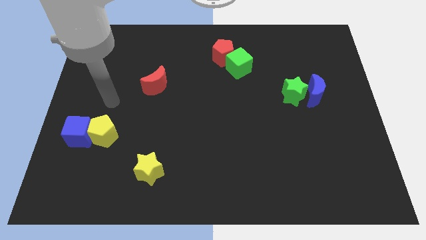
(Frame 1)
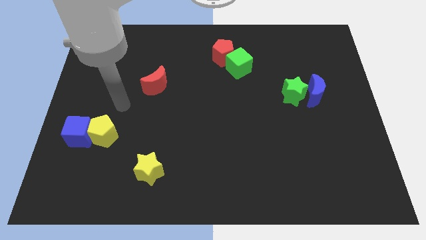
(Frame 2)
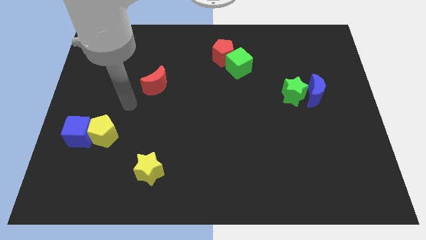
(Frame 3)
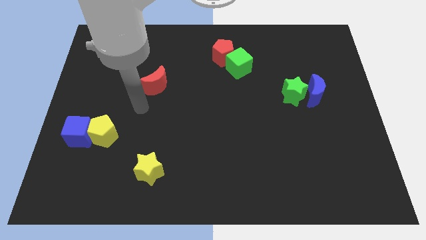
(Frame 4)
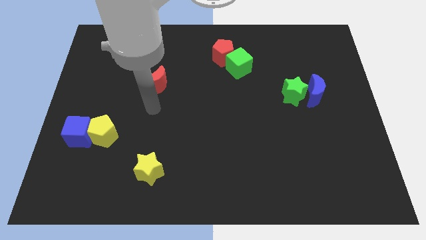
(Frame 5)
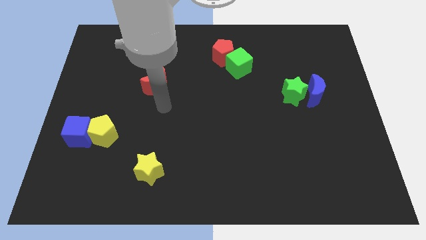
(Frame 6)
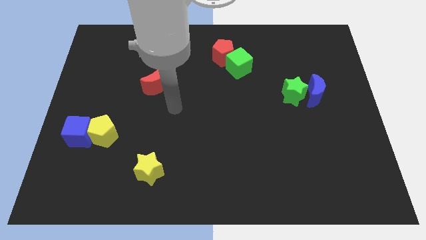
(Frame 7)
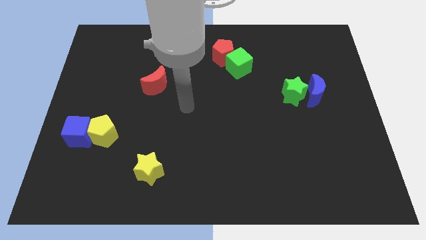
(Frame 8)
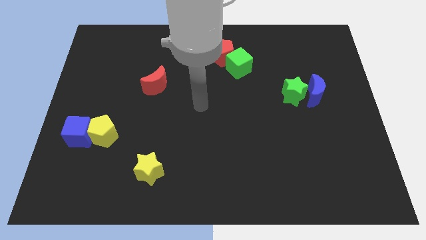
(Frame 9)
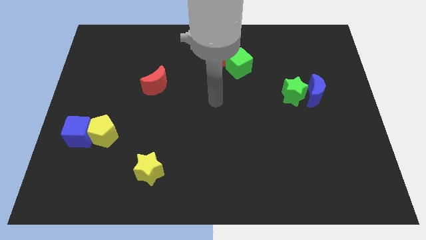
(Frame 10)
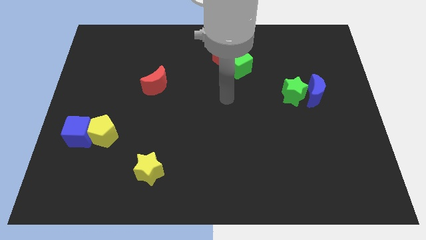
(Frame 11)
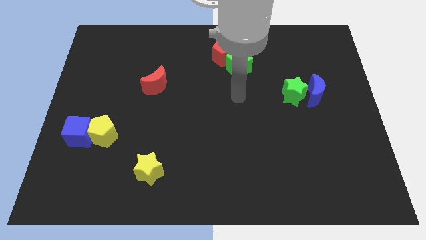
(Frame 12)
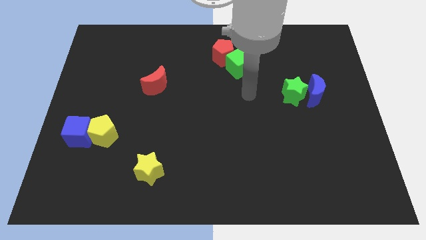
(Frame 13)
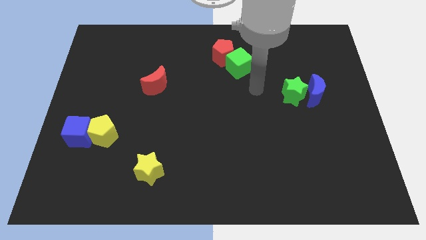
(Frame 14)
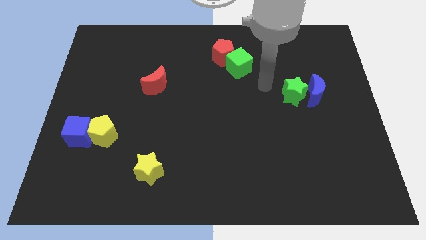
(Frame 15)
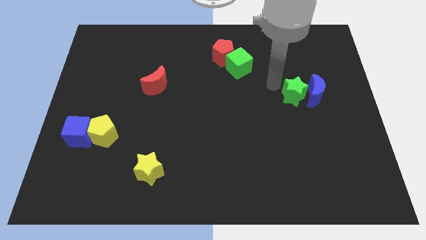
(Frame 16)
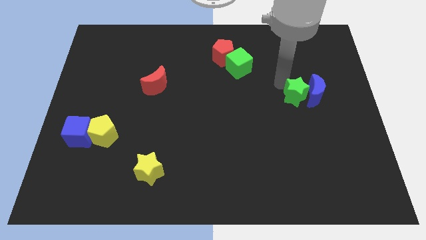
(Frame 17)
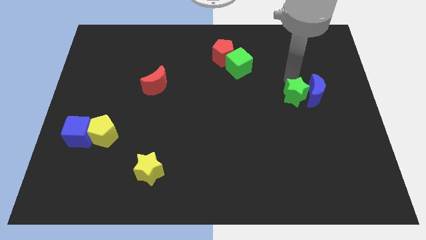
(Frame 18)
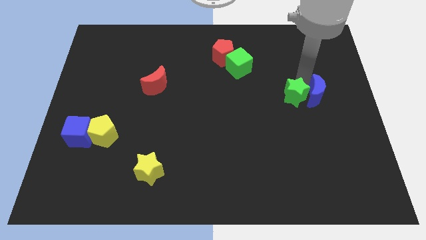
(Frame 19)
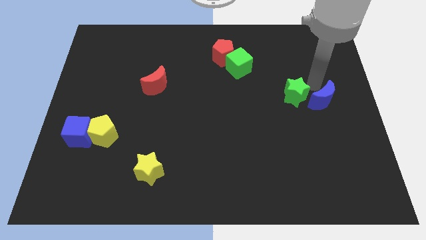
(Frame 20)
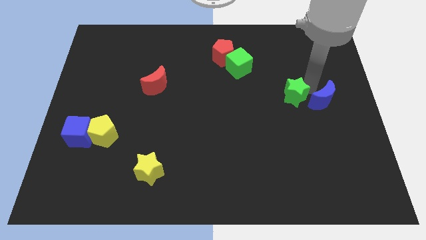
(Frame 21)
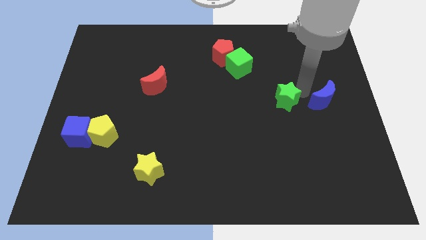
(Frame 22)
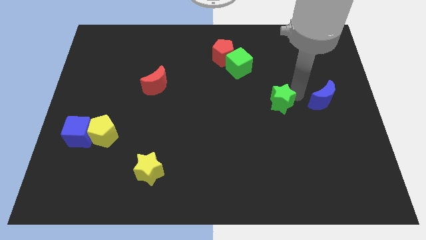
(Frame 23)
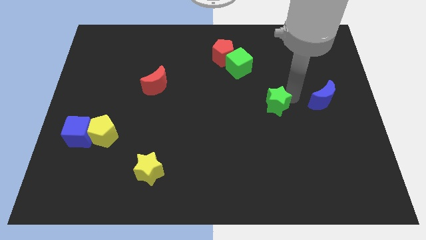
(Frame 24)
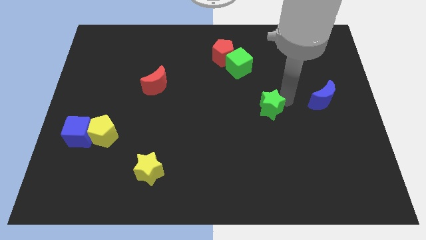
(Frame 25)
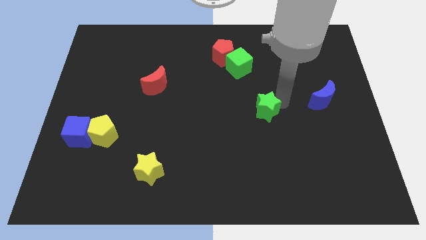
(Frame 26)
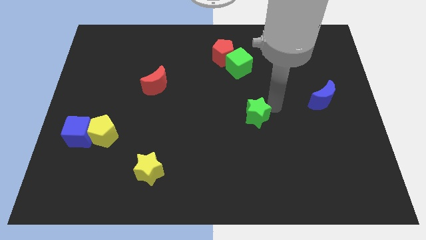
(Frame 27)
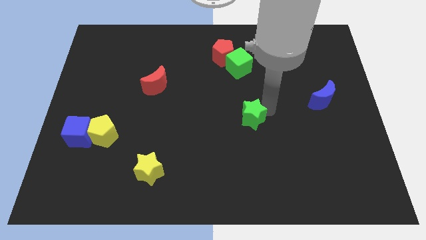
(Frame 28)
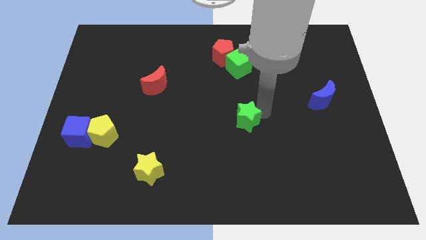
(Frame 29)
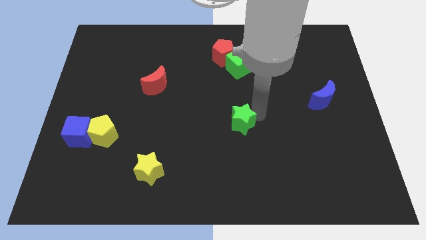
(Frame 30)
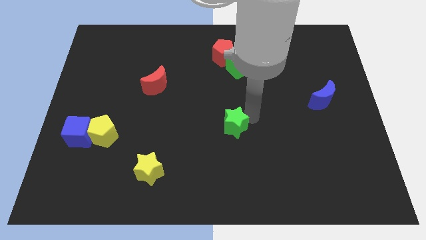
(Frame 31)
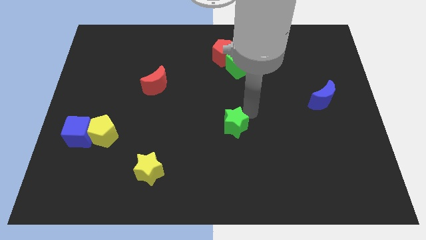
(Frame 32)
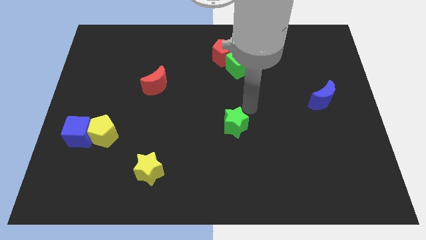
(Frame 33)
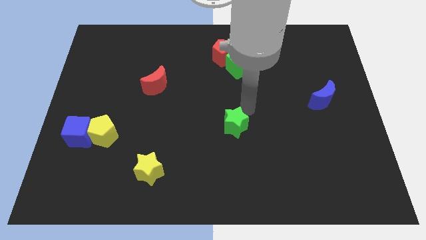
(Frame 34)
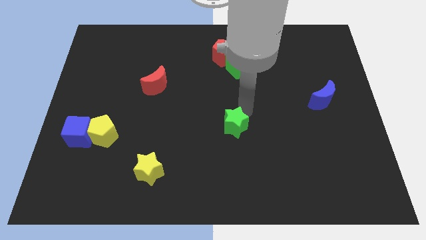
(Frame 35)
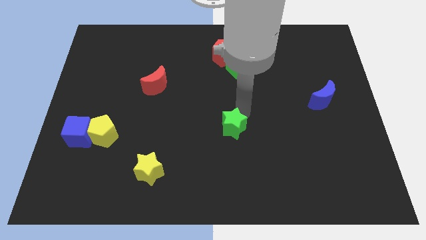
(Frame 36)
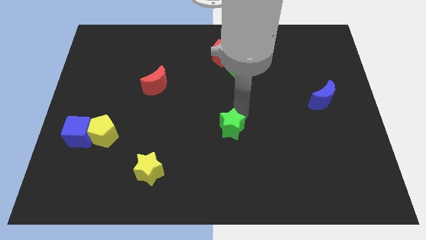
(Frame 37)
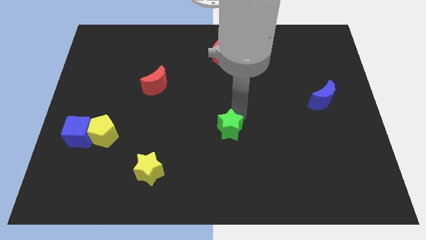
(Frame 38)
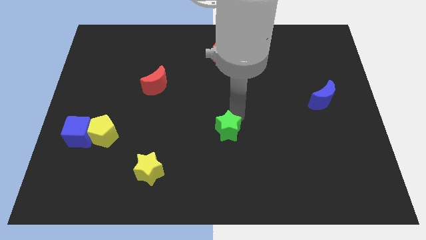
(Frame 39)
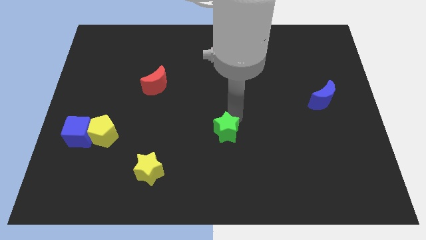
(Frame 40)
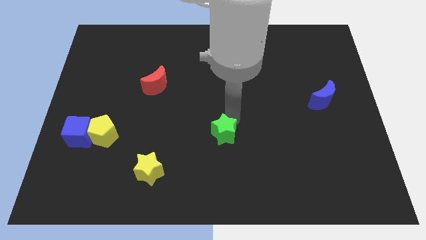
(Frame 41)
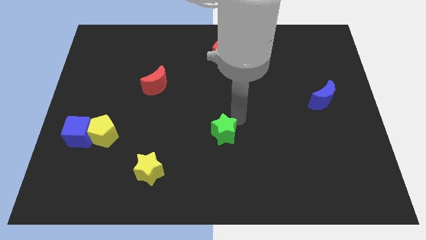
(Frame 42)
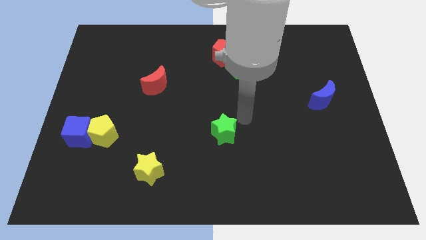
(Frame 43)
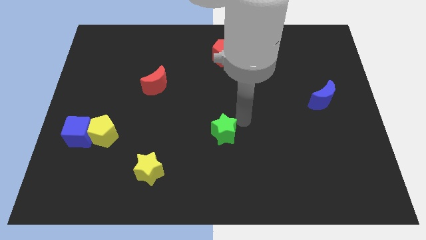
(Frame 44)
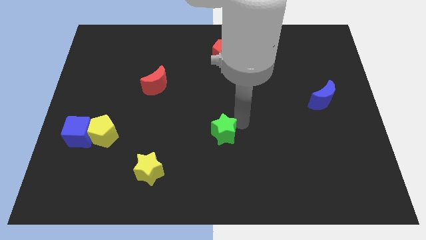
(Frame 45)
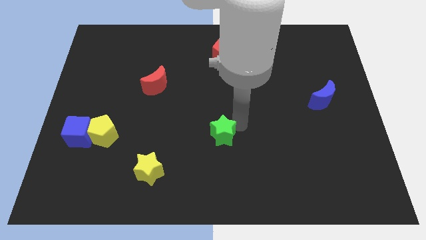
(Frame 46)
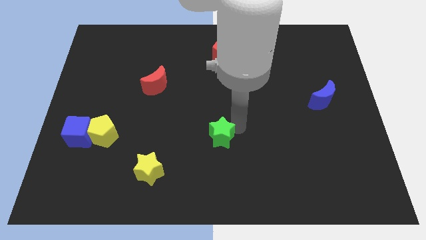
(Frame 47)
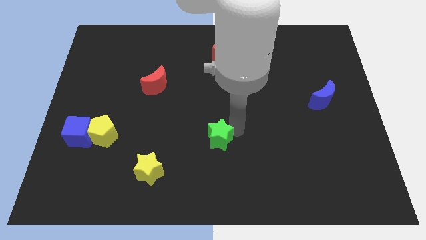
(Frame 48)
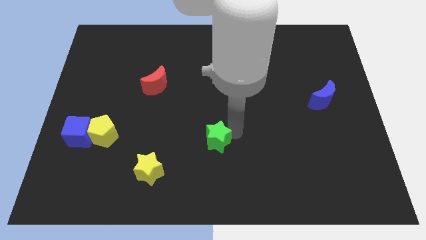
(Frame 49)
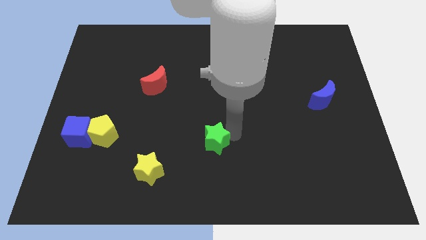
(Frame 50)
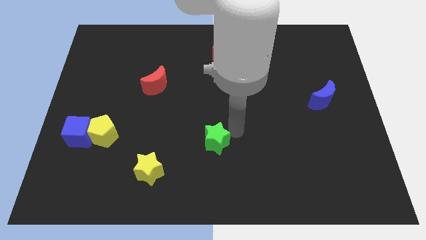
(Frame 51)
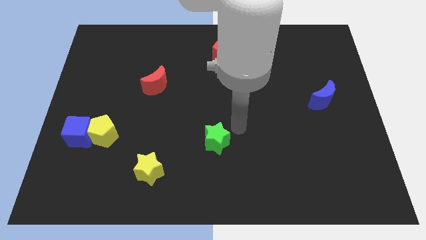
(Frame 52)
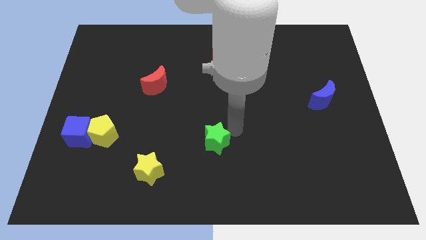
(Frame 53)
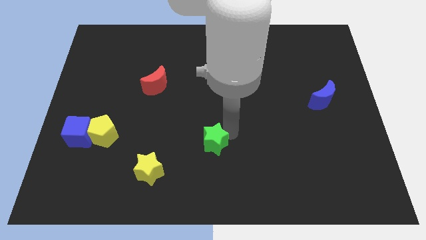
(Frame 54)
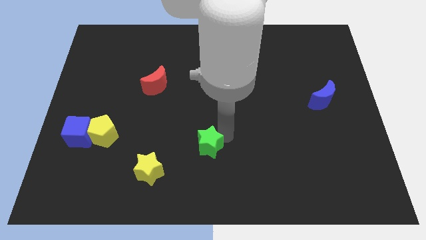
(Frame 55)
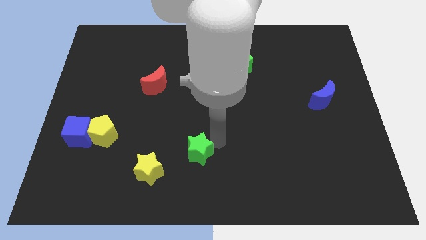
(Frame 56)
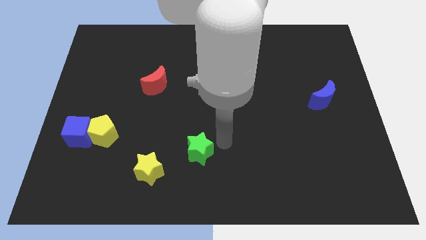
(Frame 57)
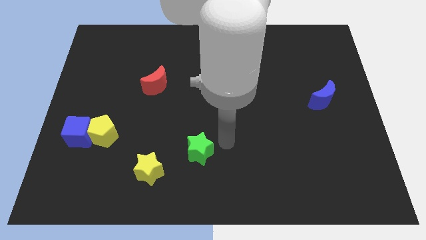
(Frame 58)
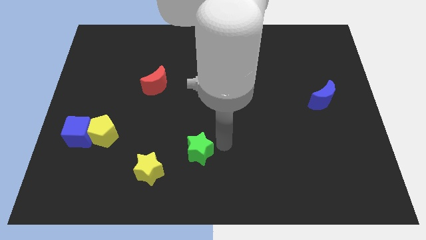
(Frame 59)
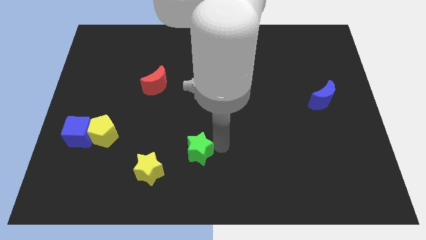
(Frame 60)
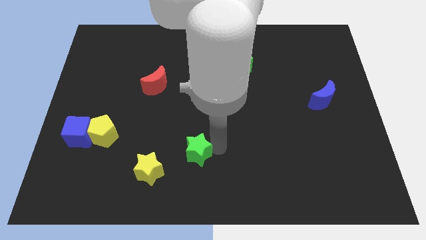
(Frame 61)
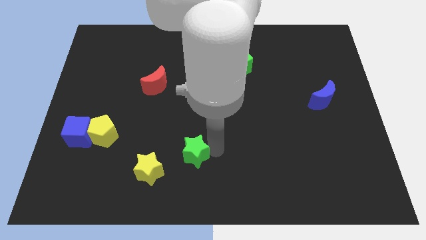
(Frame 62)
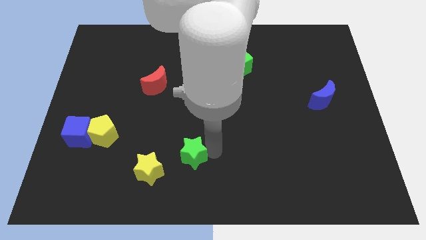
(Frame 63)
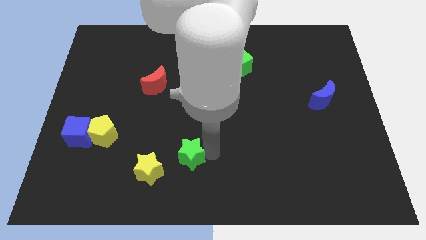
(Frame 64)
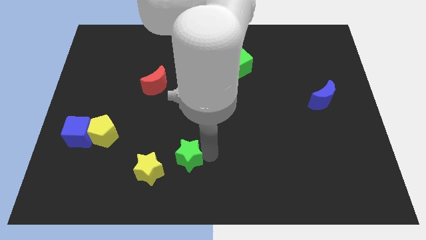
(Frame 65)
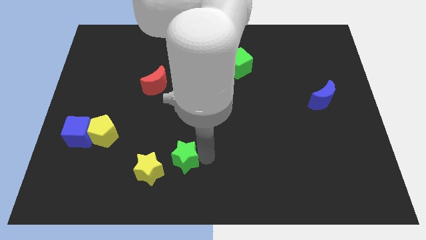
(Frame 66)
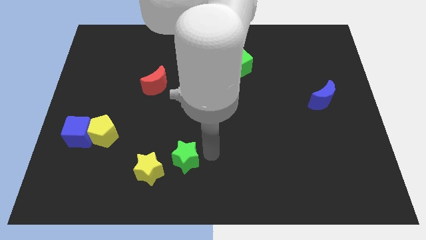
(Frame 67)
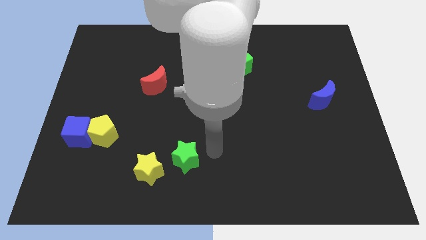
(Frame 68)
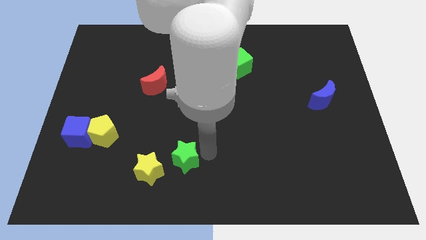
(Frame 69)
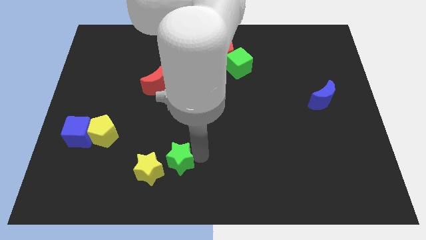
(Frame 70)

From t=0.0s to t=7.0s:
slide the green star close to the yellow star
